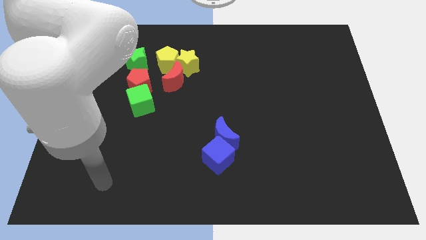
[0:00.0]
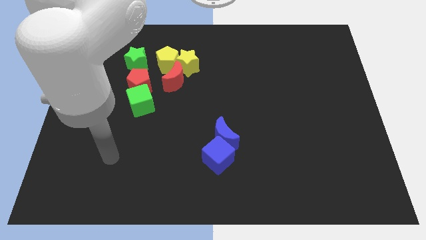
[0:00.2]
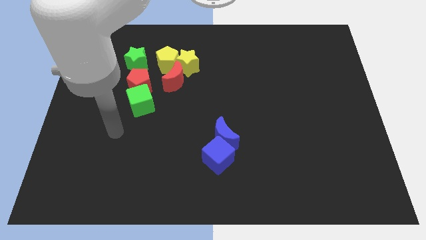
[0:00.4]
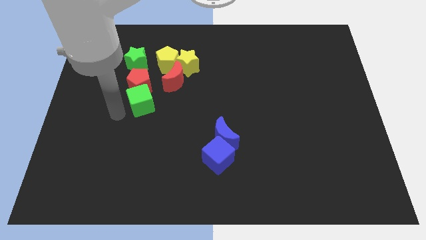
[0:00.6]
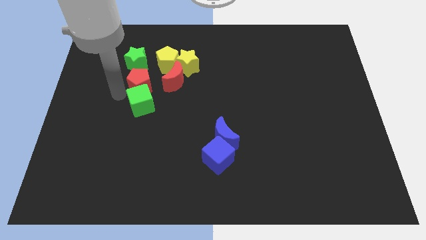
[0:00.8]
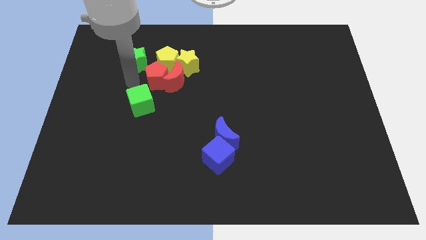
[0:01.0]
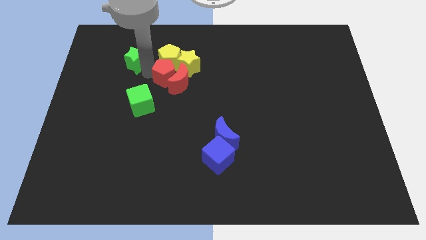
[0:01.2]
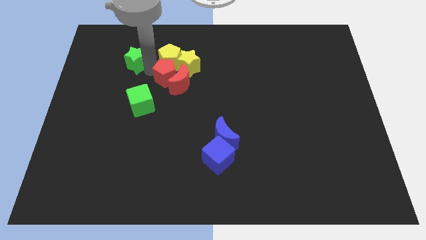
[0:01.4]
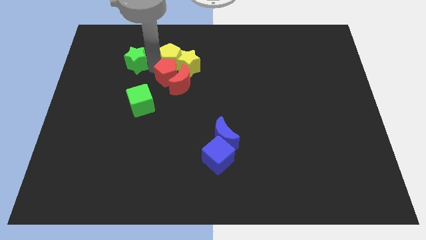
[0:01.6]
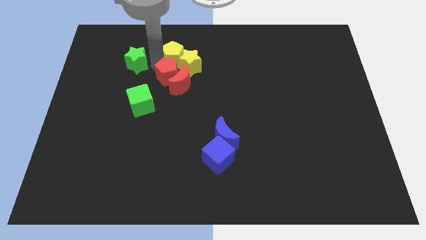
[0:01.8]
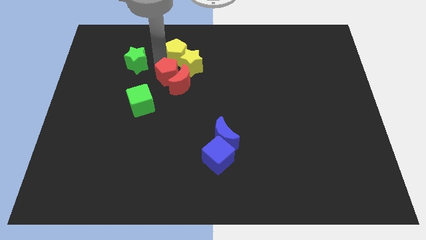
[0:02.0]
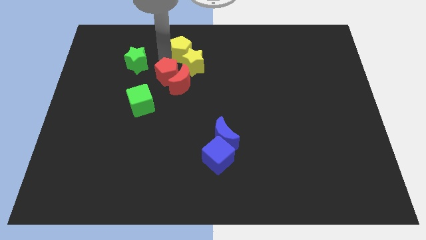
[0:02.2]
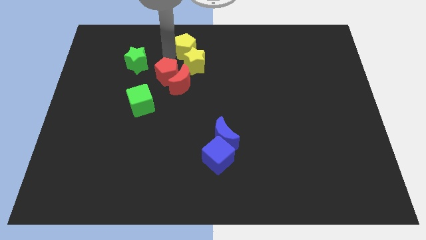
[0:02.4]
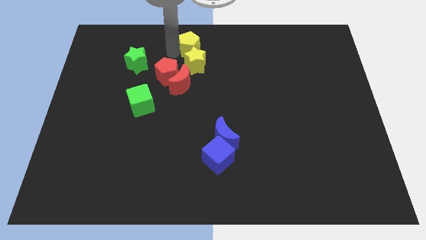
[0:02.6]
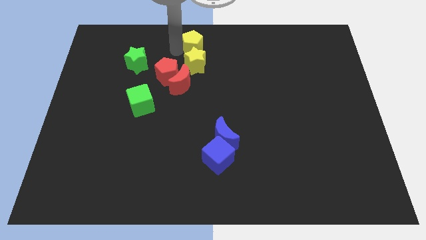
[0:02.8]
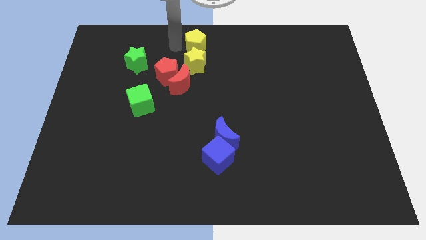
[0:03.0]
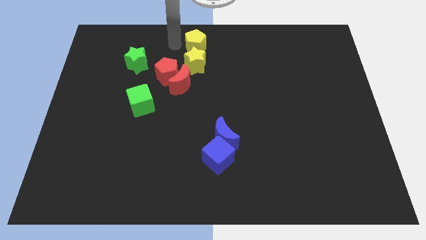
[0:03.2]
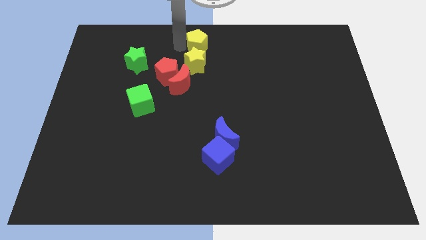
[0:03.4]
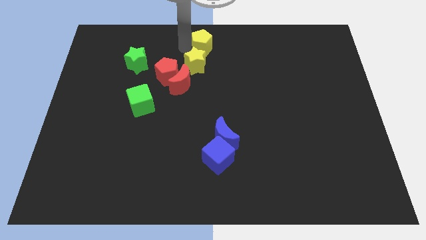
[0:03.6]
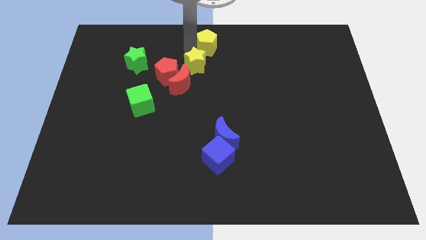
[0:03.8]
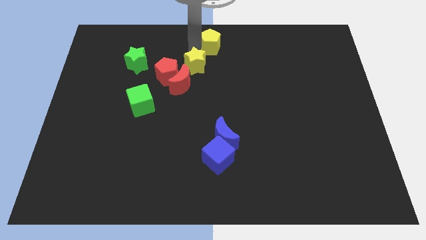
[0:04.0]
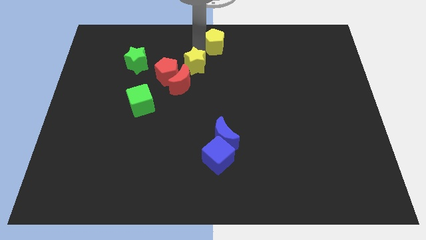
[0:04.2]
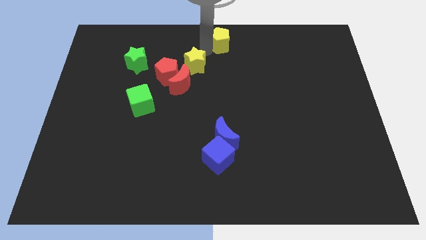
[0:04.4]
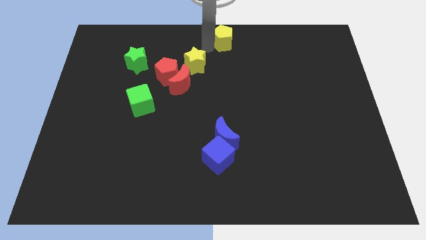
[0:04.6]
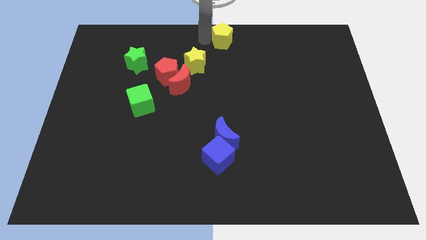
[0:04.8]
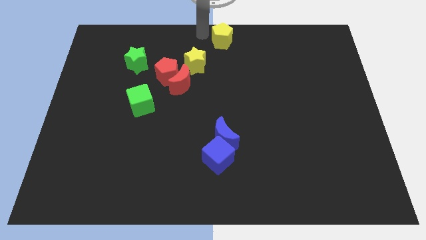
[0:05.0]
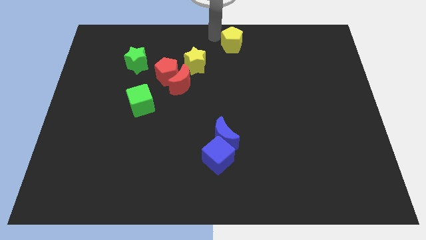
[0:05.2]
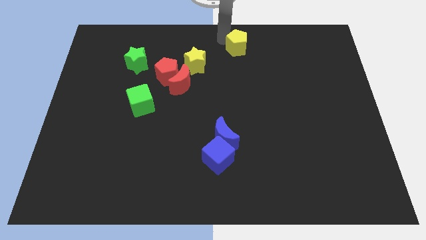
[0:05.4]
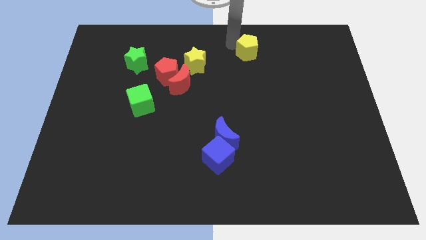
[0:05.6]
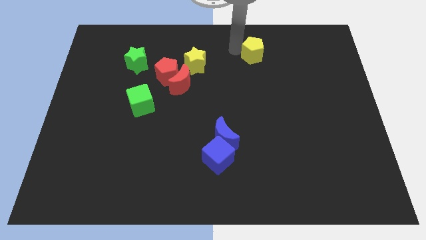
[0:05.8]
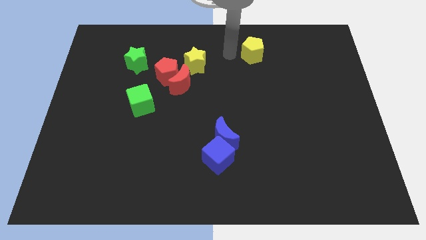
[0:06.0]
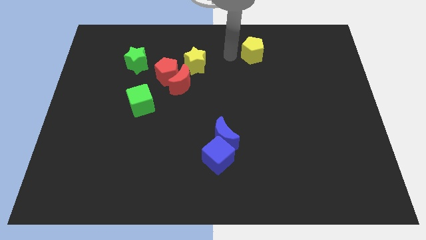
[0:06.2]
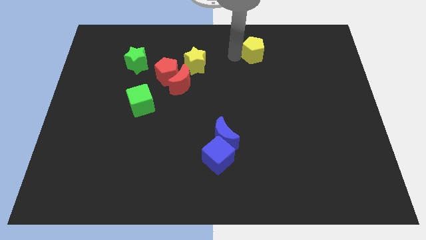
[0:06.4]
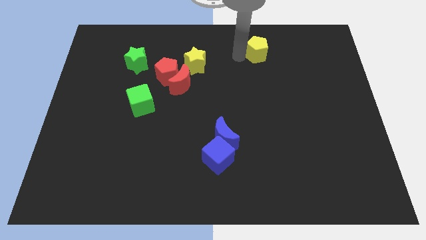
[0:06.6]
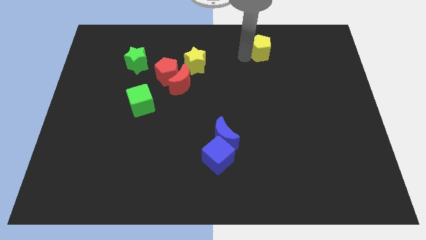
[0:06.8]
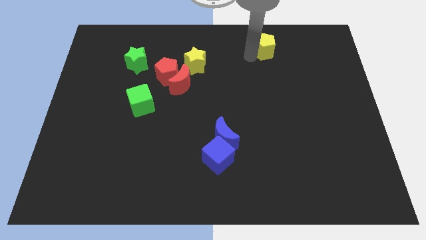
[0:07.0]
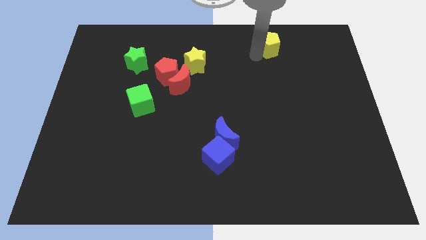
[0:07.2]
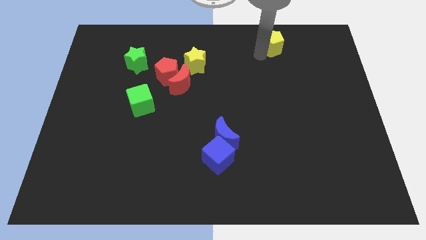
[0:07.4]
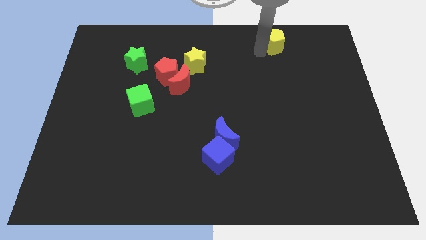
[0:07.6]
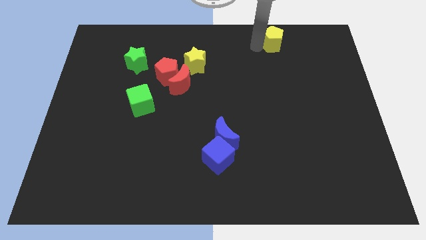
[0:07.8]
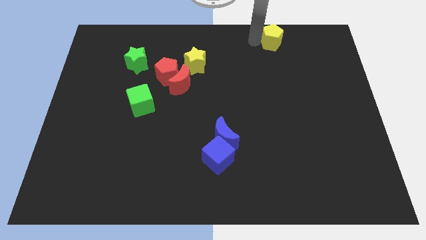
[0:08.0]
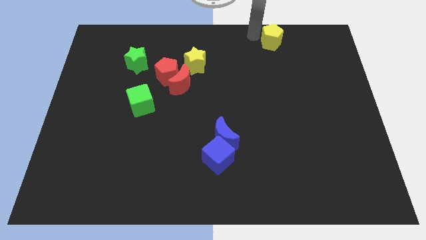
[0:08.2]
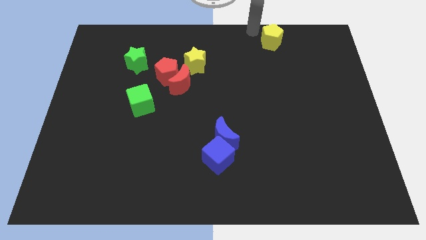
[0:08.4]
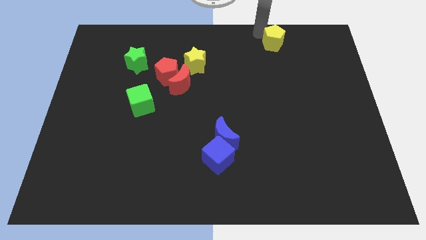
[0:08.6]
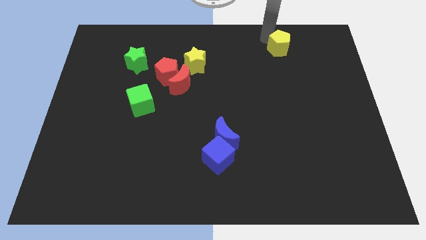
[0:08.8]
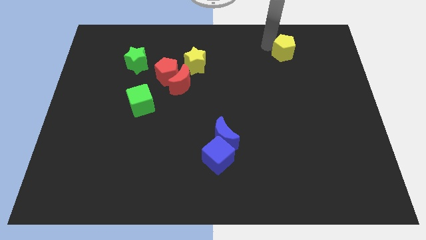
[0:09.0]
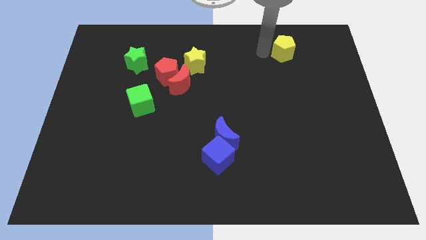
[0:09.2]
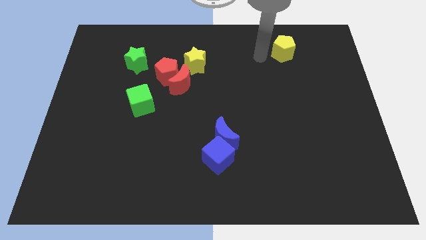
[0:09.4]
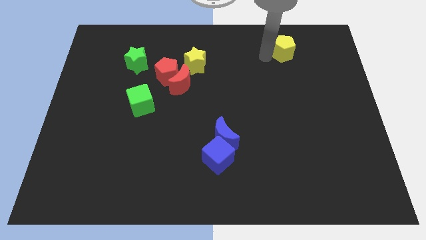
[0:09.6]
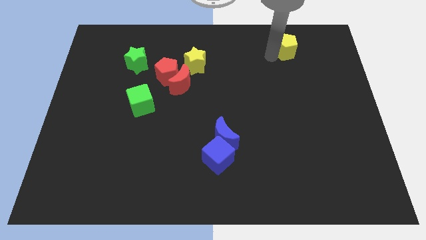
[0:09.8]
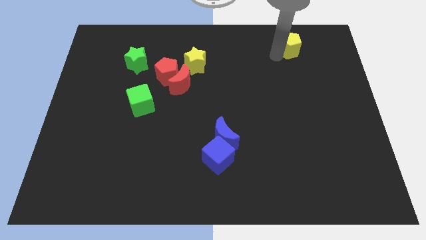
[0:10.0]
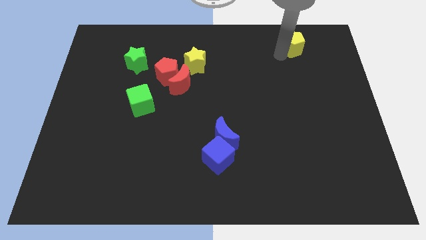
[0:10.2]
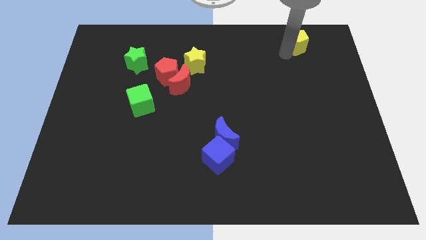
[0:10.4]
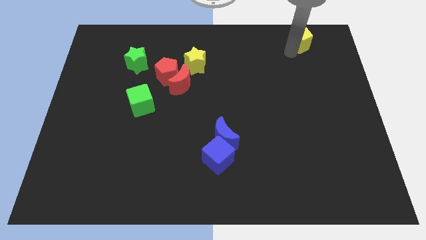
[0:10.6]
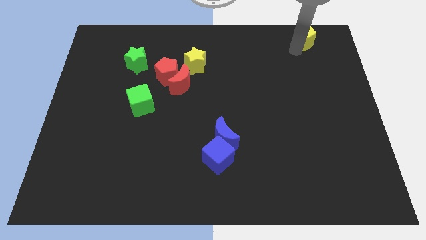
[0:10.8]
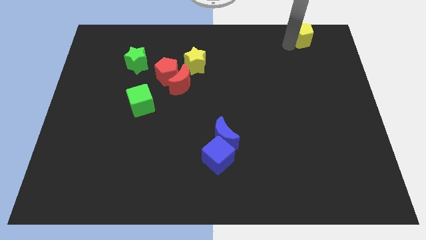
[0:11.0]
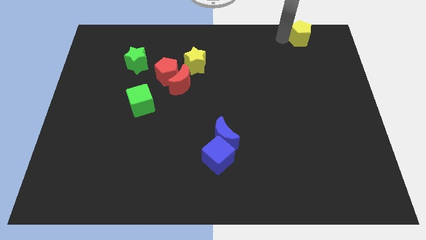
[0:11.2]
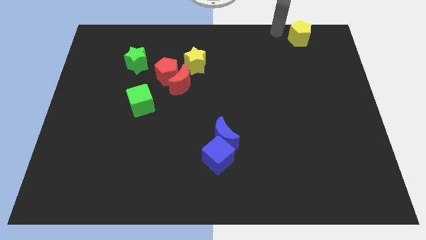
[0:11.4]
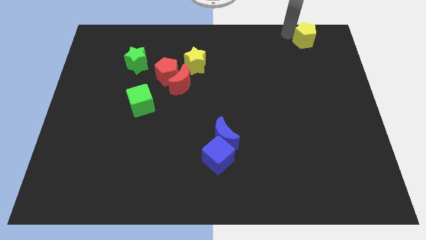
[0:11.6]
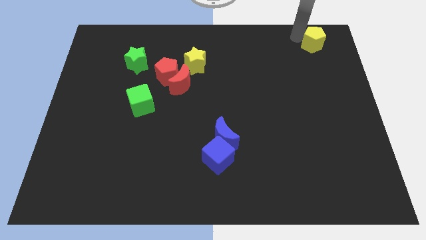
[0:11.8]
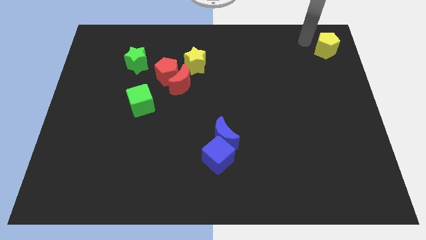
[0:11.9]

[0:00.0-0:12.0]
push the yellow pentagon to the top right corner
